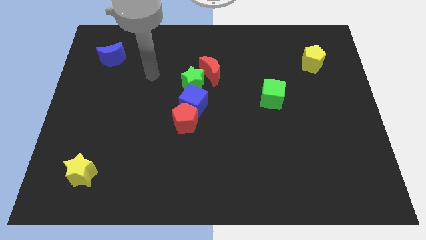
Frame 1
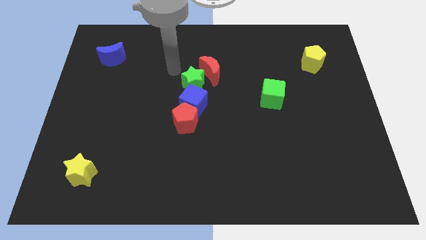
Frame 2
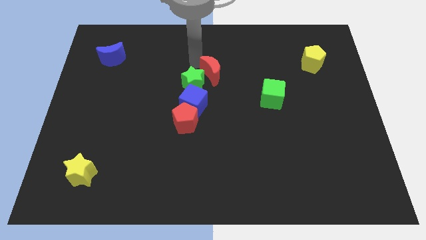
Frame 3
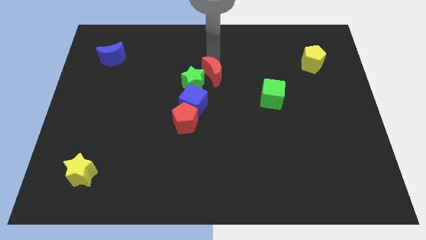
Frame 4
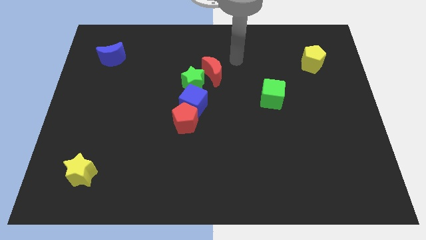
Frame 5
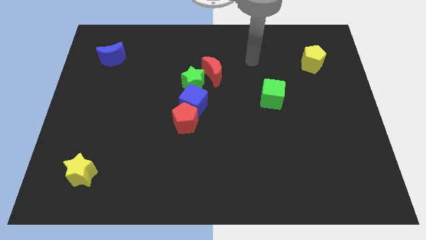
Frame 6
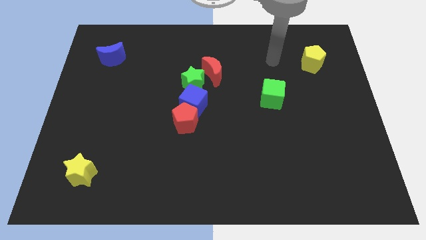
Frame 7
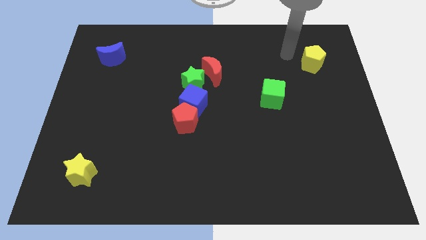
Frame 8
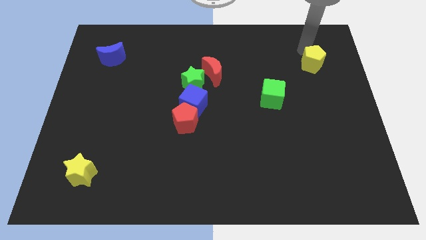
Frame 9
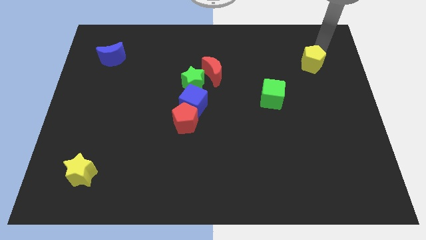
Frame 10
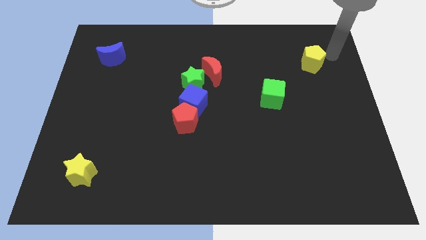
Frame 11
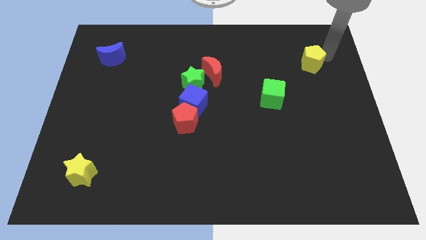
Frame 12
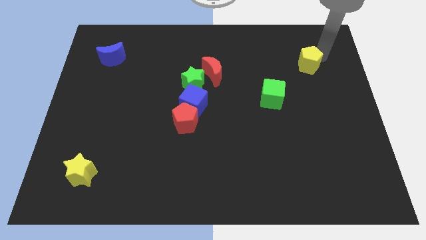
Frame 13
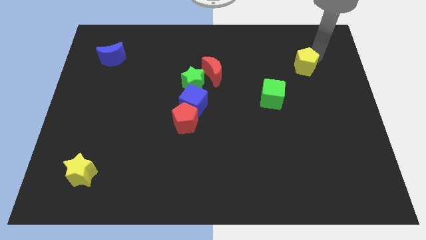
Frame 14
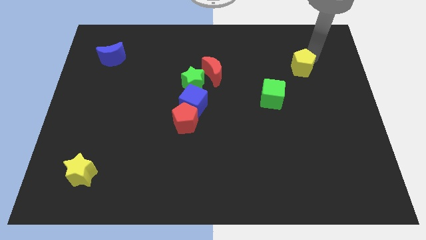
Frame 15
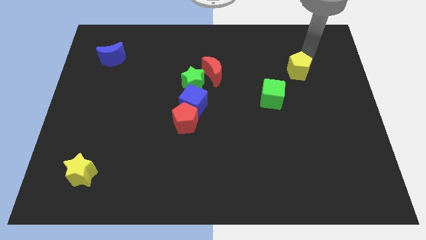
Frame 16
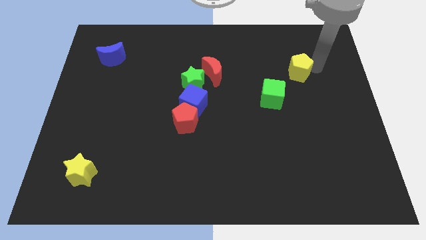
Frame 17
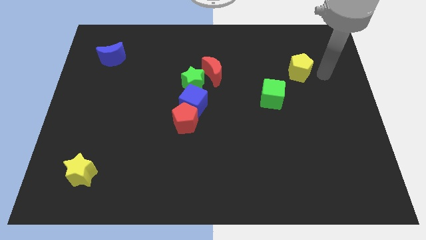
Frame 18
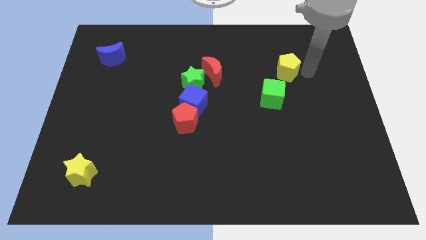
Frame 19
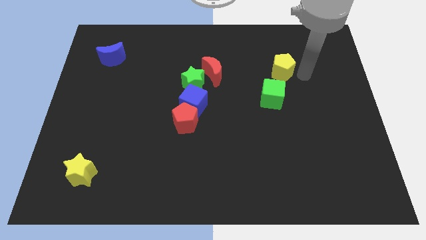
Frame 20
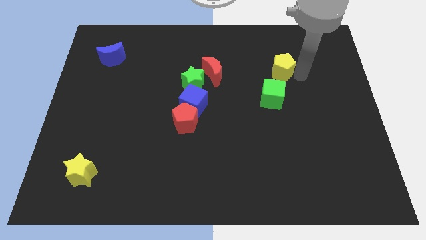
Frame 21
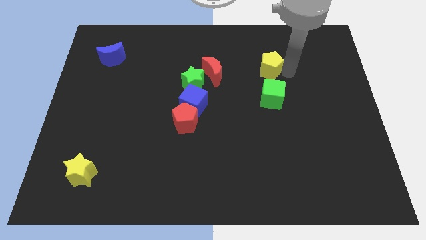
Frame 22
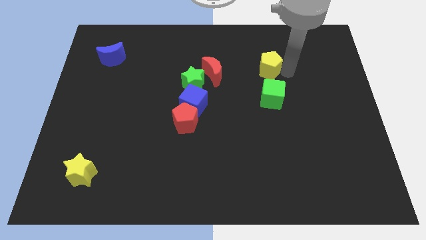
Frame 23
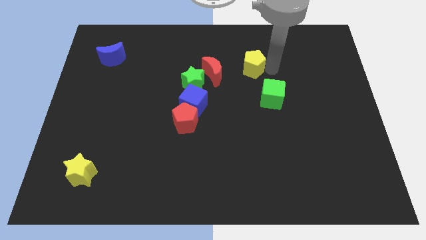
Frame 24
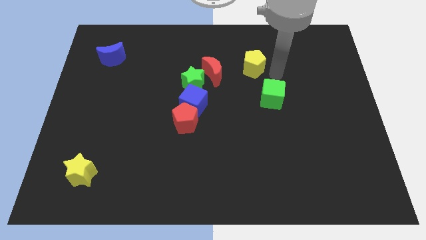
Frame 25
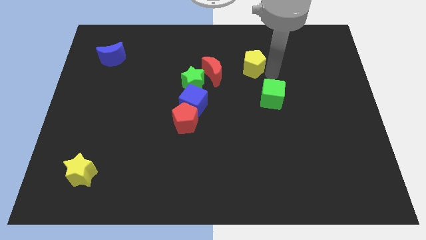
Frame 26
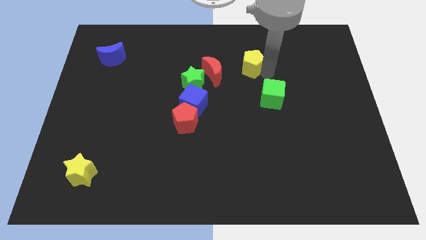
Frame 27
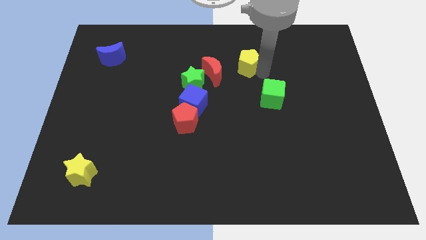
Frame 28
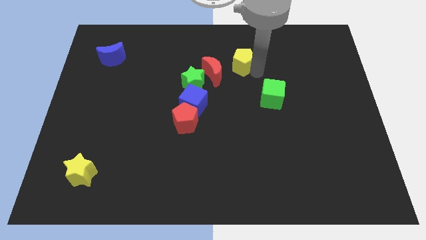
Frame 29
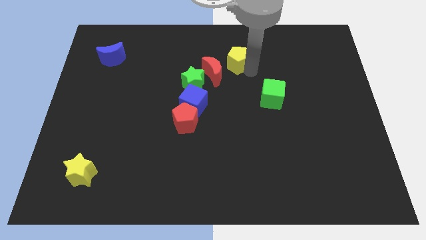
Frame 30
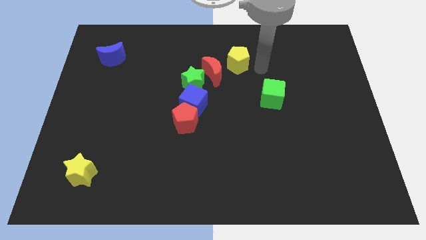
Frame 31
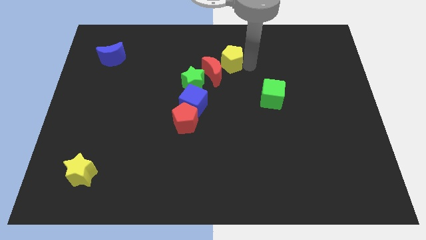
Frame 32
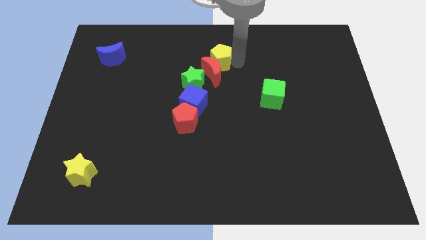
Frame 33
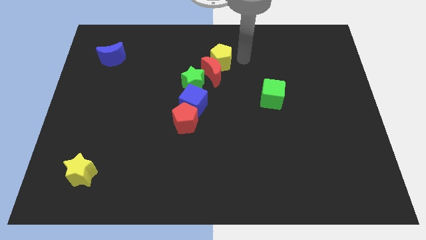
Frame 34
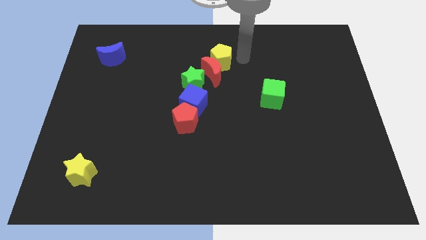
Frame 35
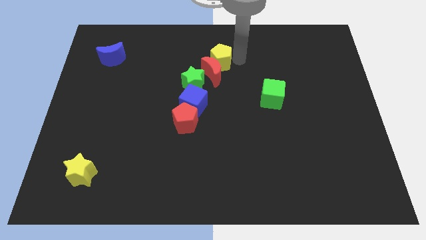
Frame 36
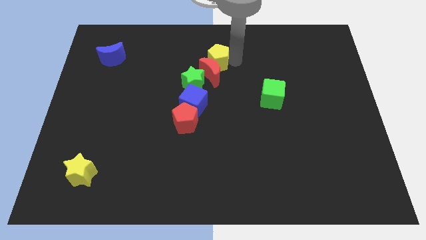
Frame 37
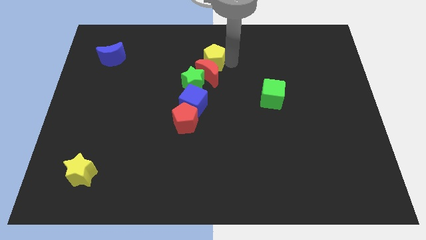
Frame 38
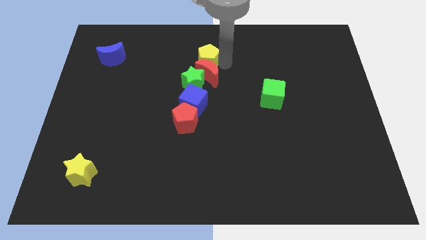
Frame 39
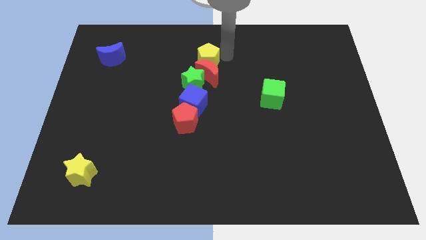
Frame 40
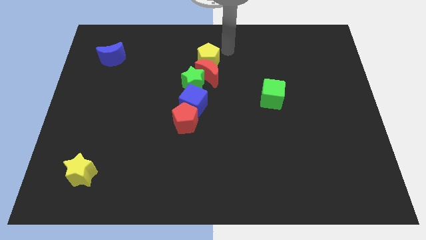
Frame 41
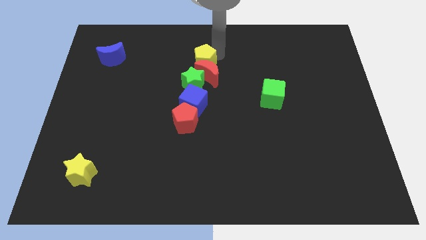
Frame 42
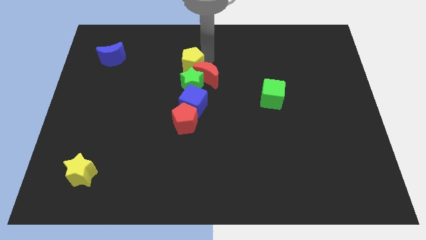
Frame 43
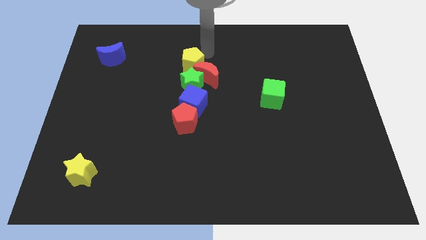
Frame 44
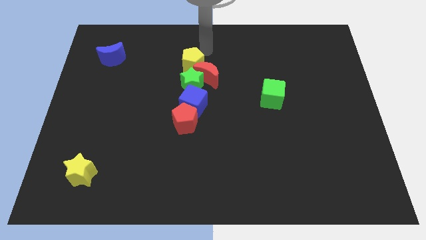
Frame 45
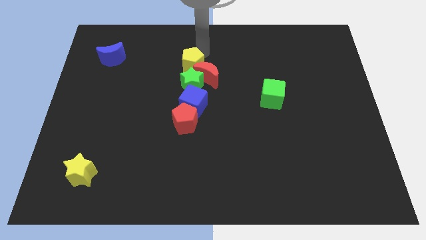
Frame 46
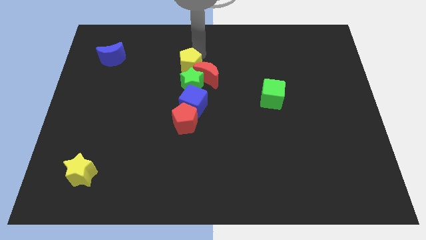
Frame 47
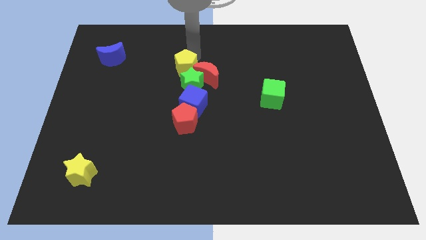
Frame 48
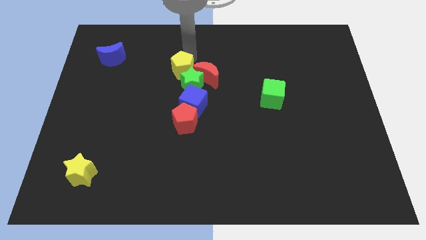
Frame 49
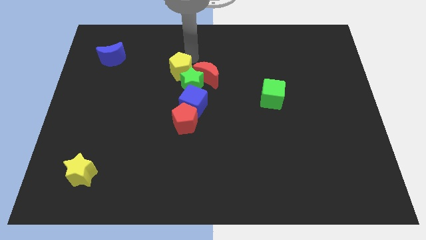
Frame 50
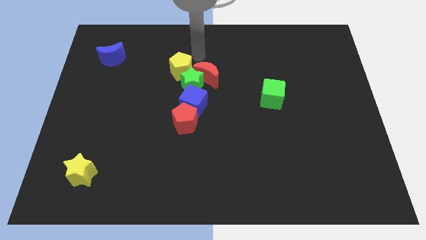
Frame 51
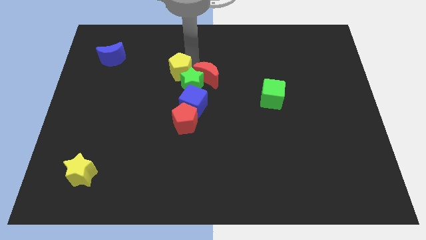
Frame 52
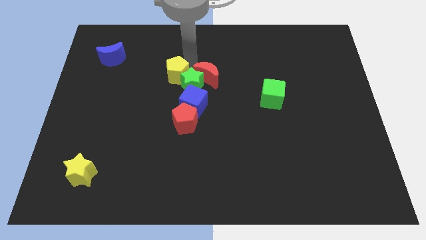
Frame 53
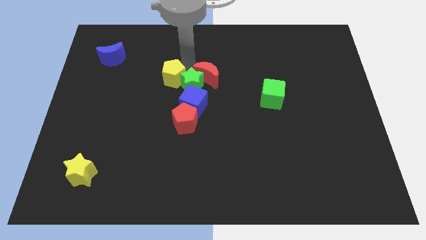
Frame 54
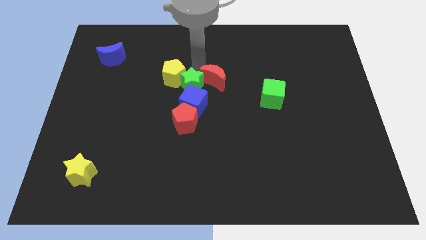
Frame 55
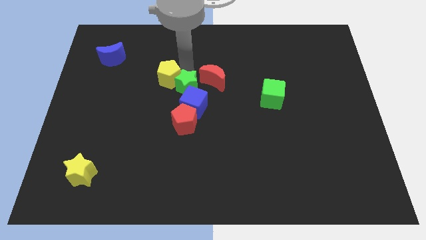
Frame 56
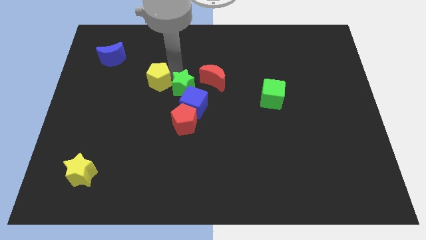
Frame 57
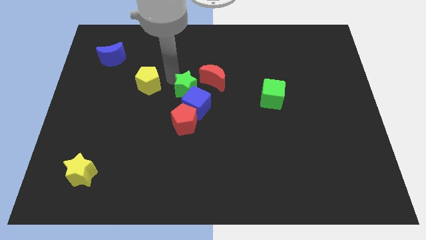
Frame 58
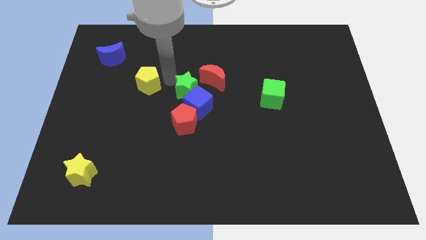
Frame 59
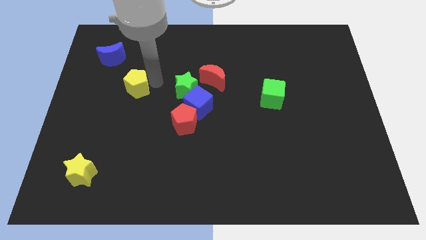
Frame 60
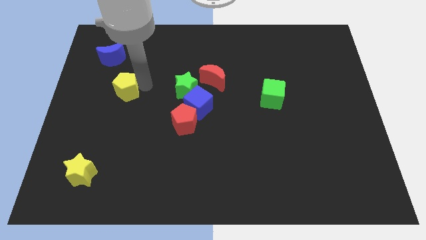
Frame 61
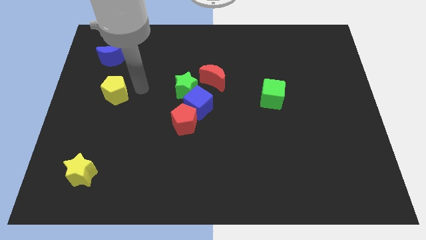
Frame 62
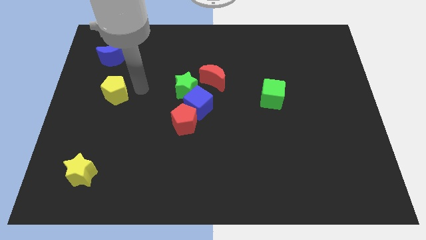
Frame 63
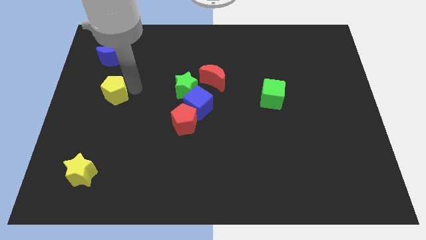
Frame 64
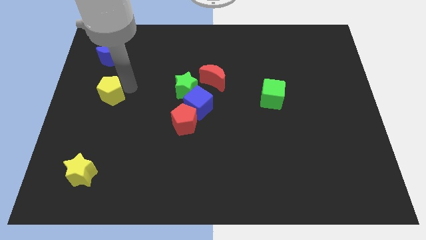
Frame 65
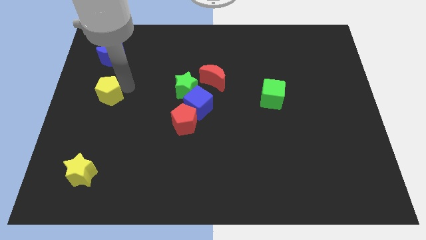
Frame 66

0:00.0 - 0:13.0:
put the yellow pentagon to the center left
